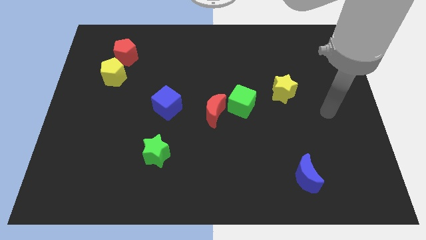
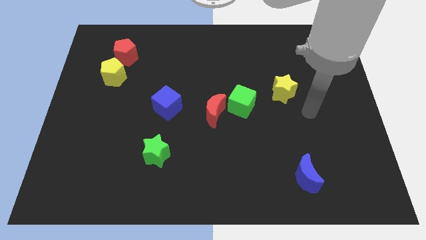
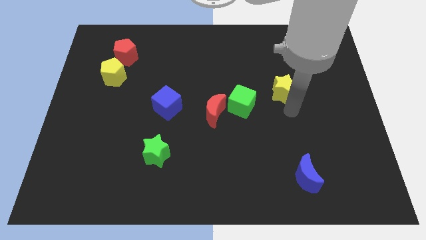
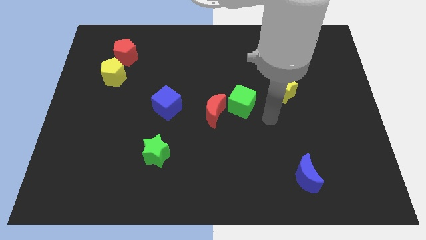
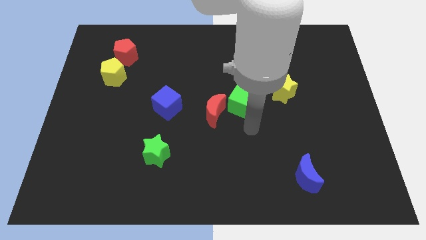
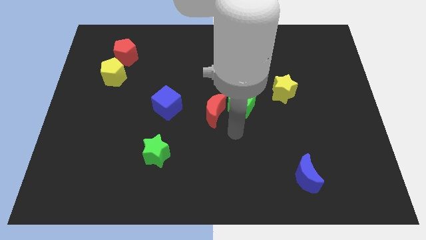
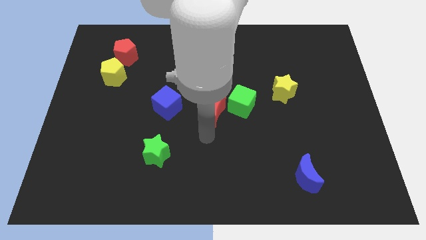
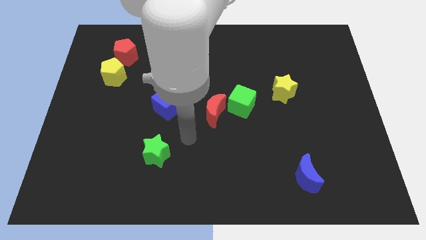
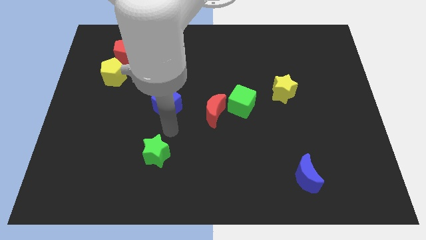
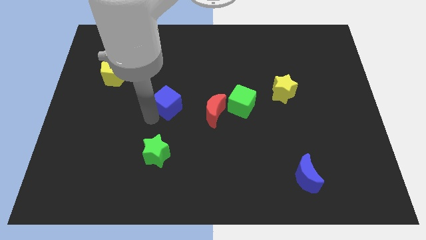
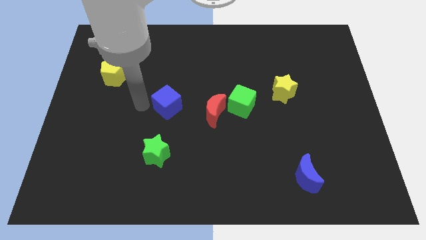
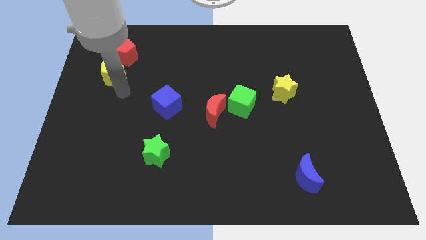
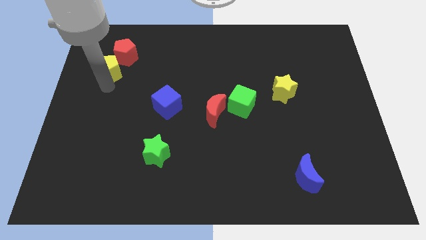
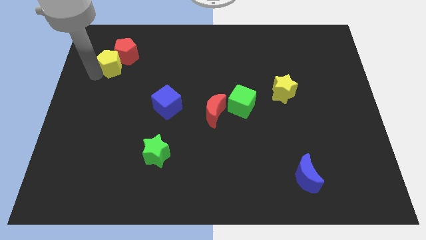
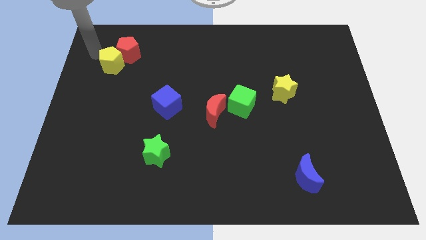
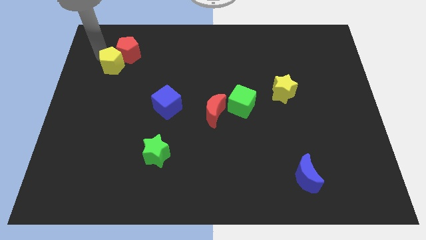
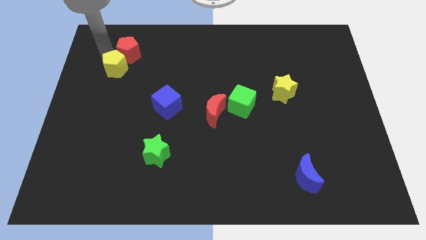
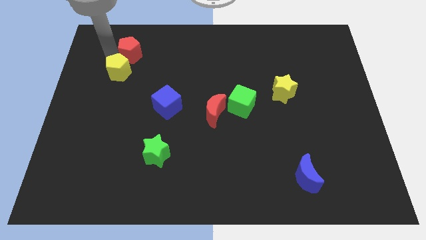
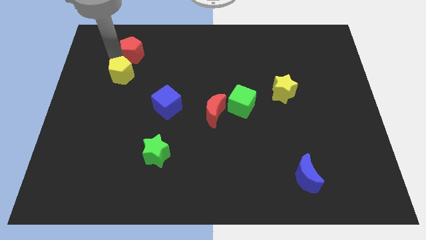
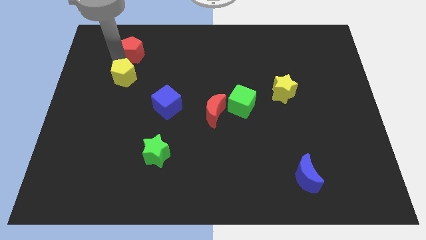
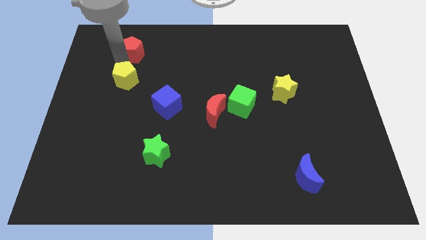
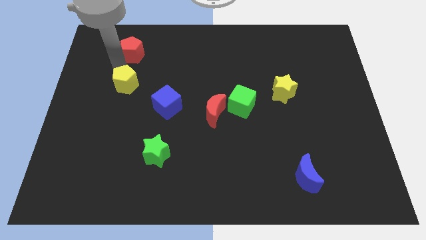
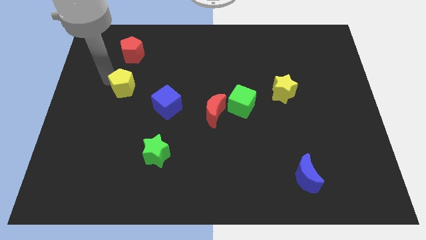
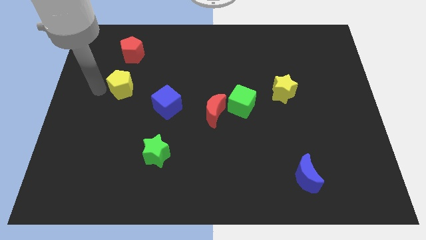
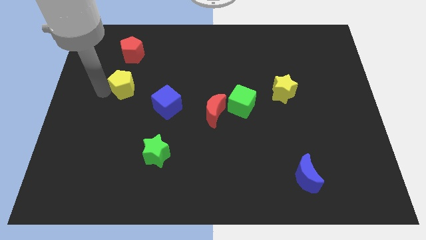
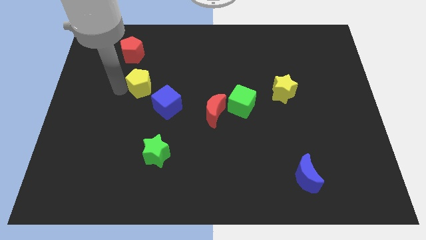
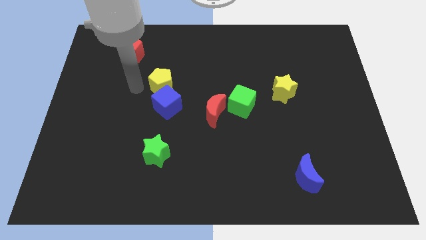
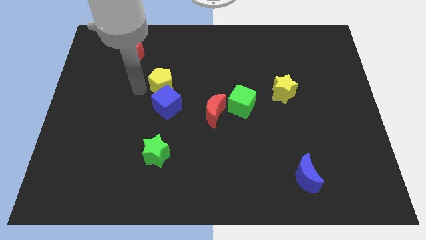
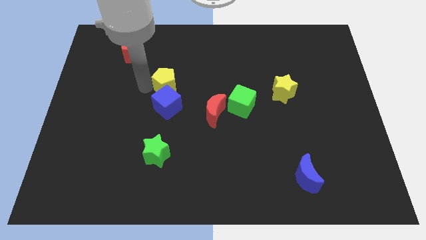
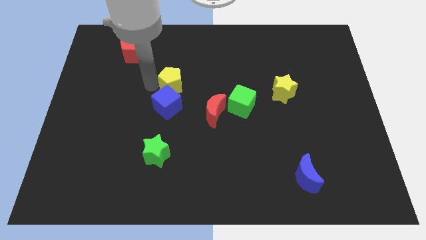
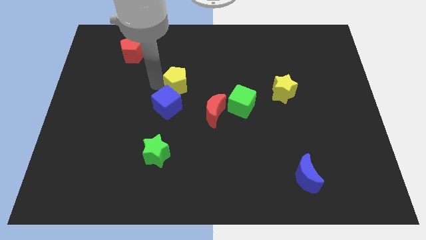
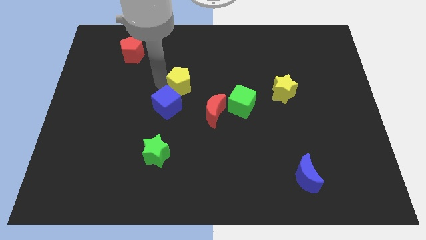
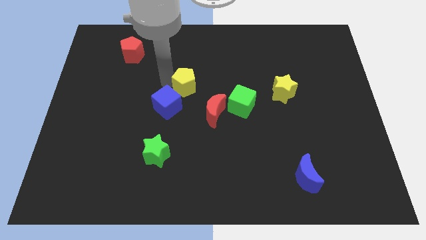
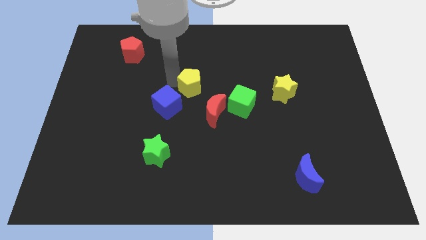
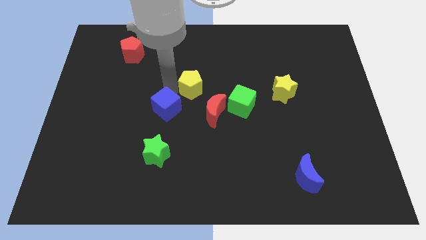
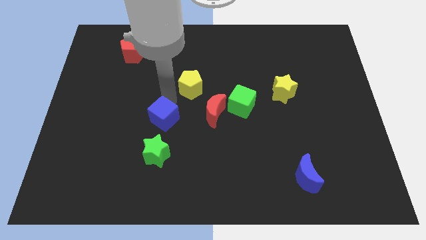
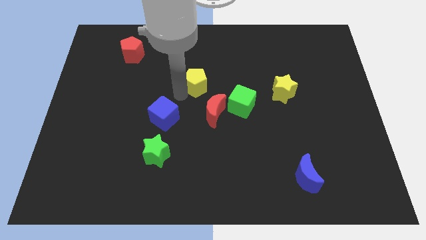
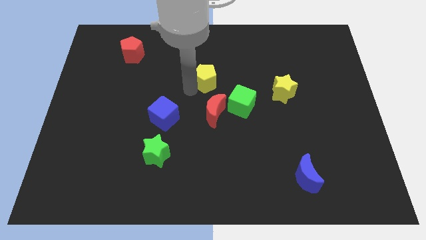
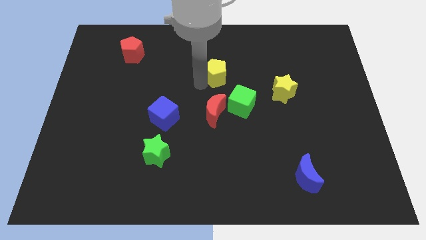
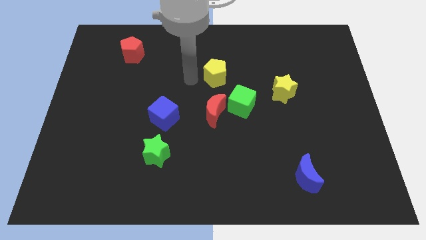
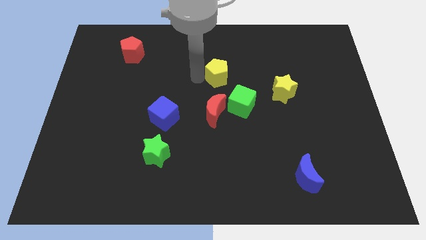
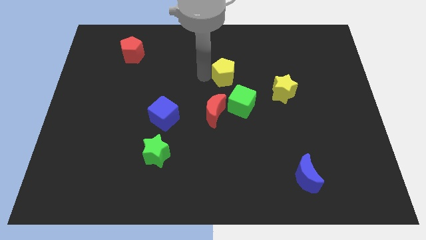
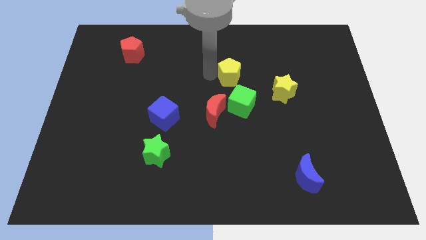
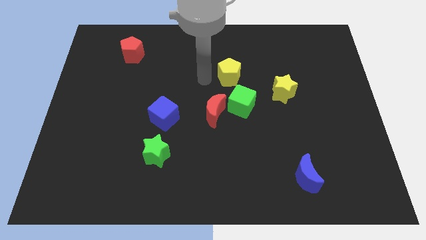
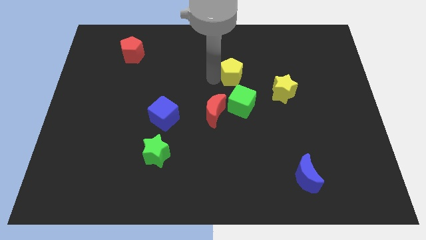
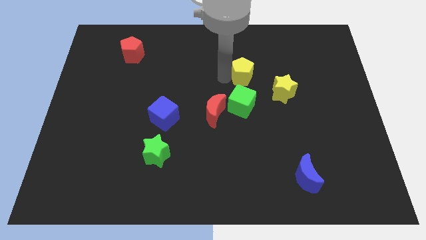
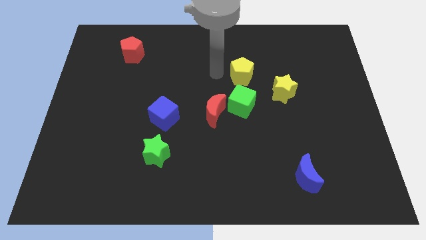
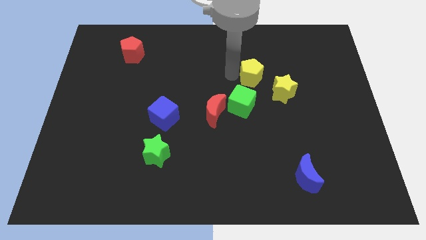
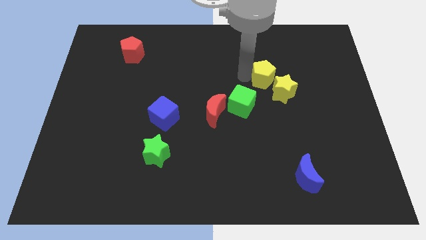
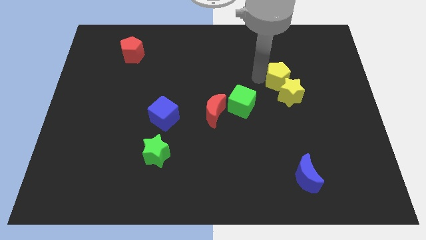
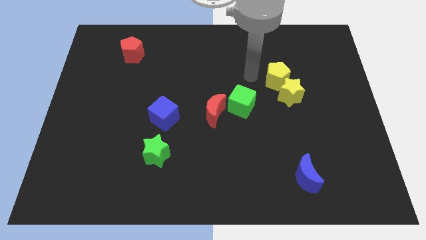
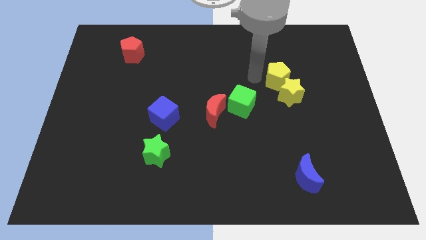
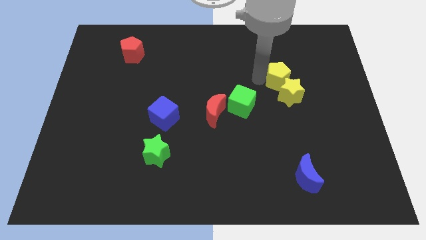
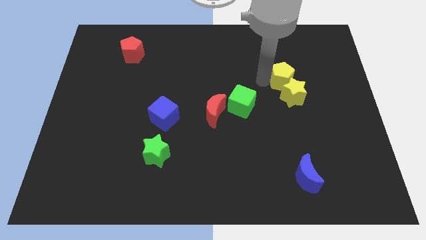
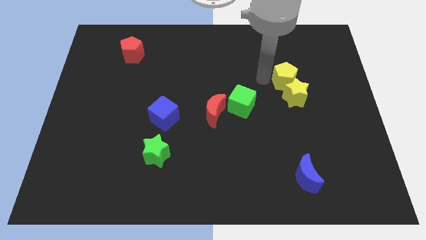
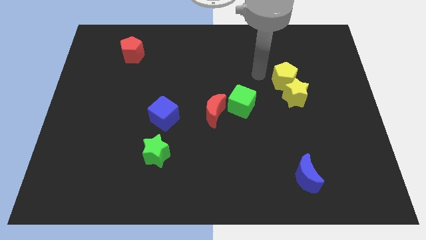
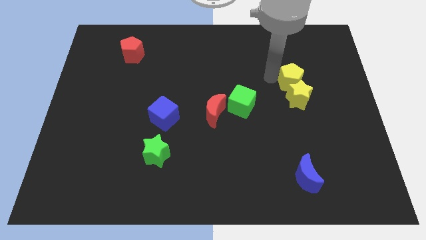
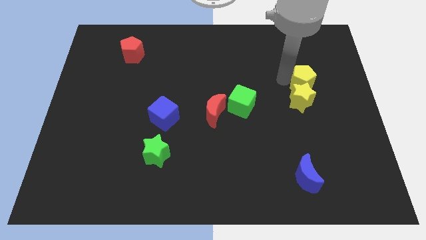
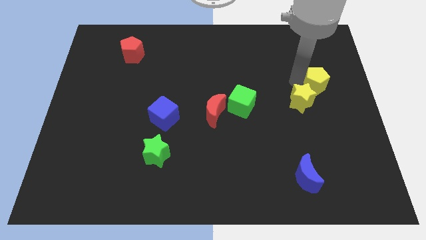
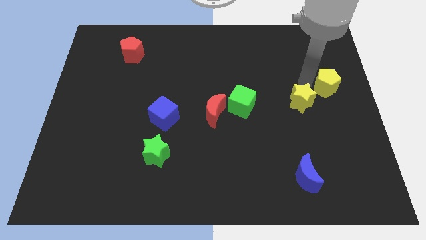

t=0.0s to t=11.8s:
move the yellow pentagon to the right side of the board

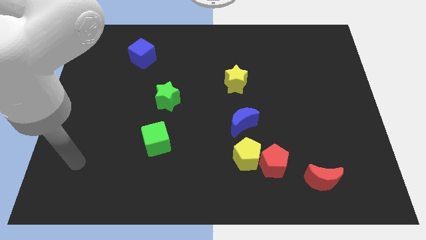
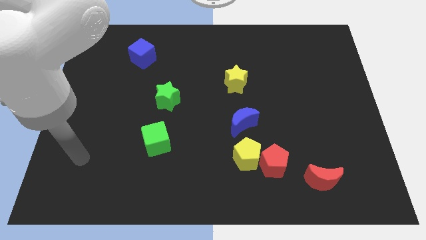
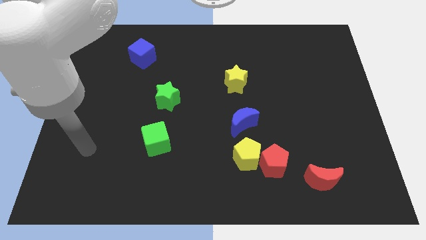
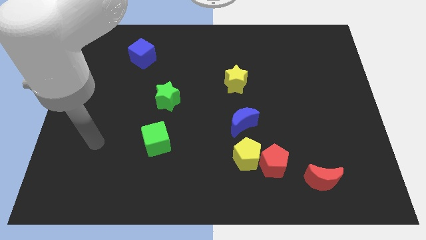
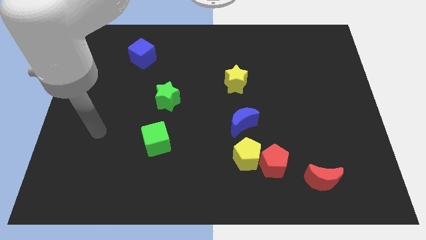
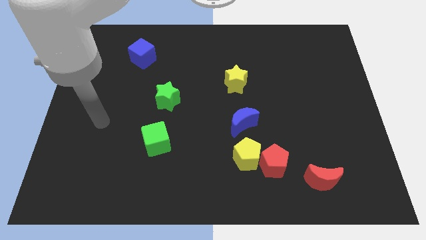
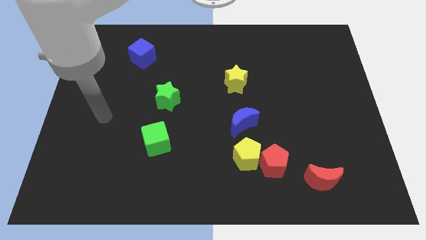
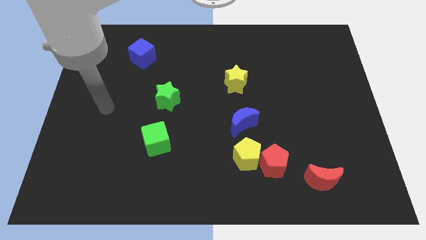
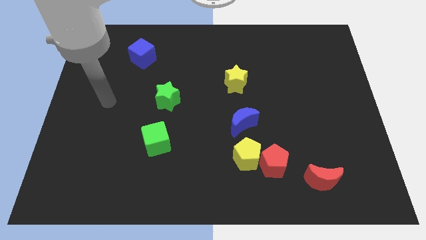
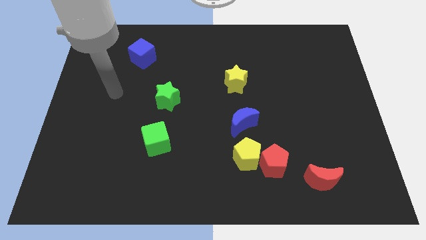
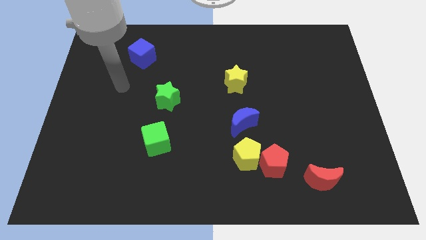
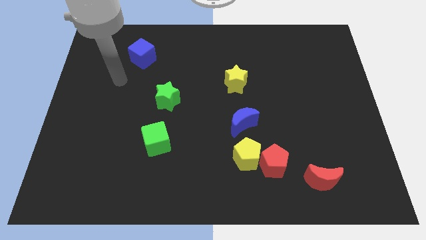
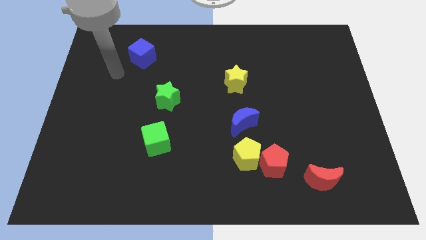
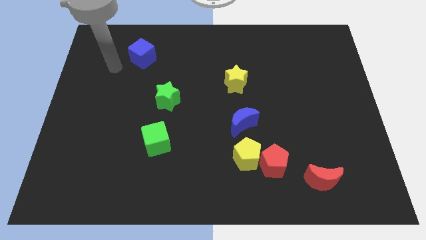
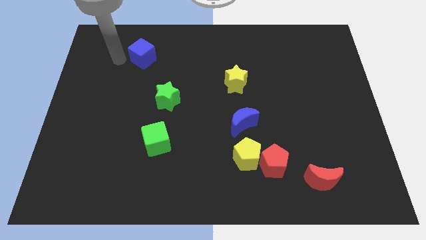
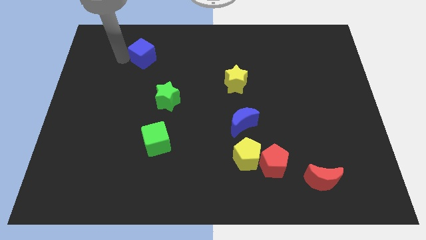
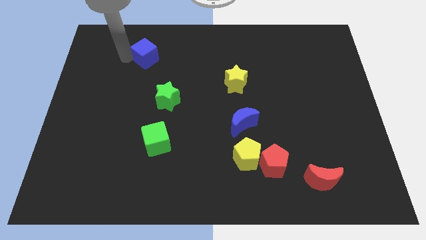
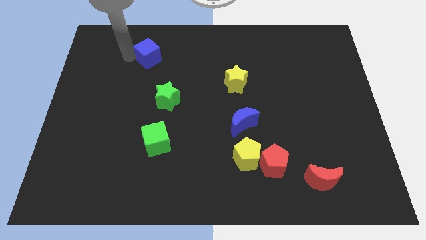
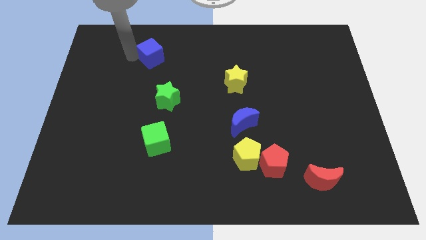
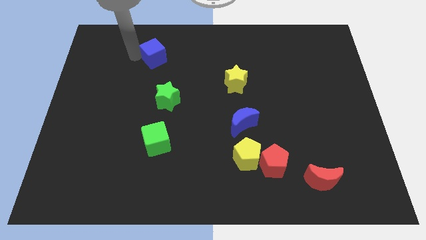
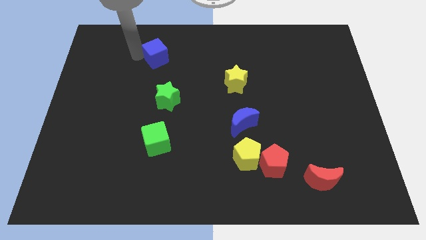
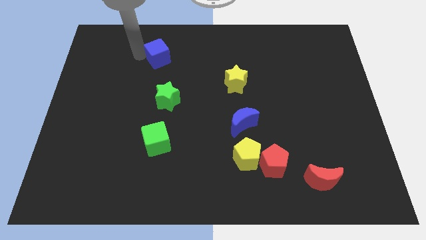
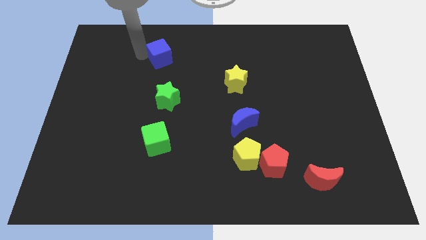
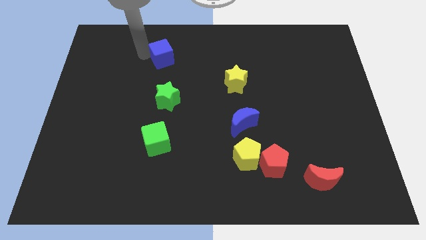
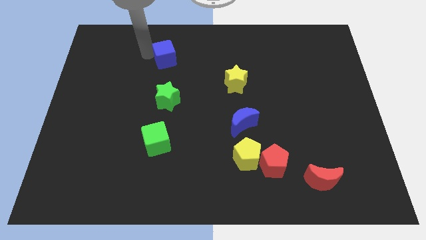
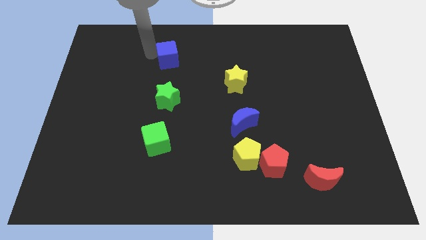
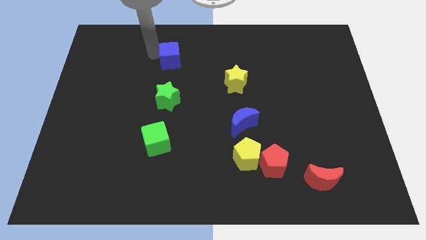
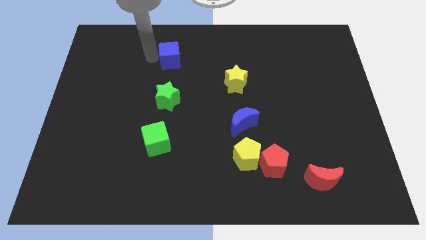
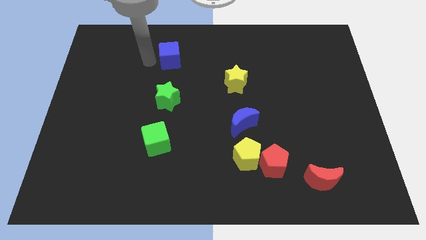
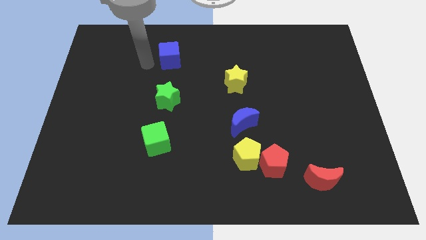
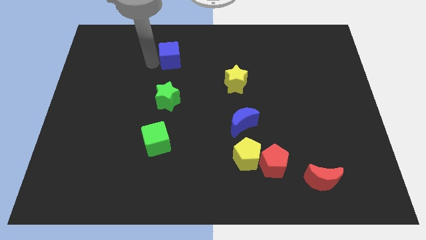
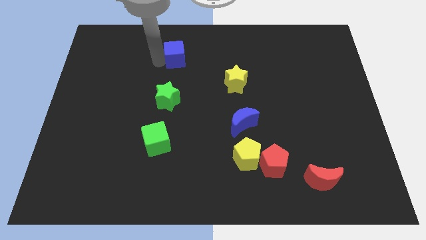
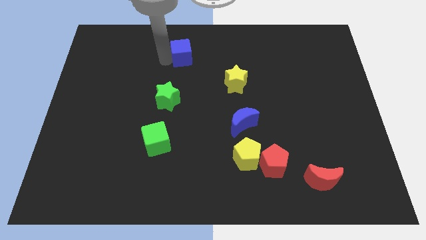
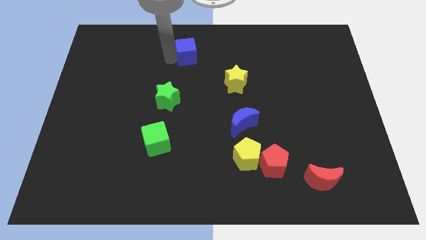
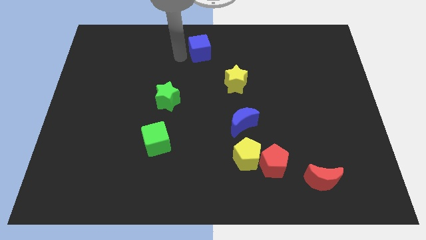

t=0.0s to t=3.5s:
push the blue cube to the top
